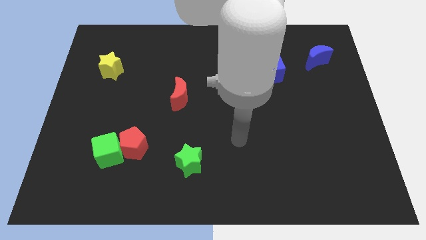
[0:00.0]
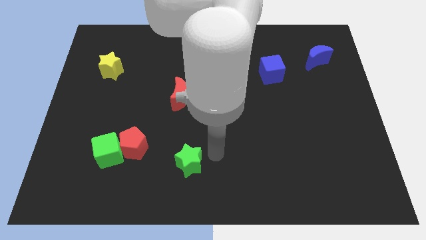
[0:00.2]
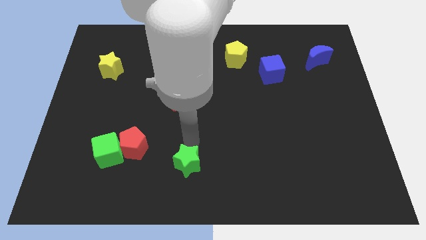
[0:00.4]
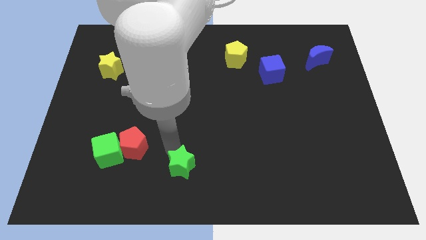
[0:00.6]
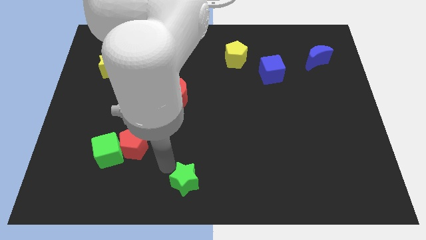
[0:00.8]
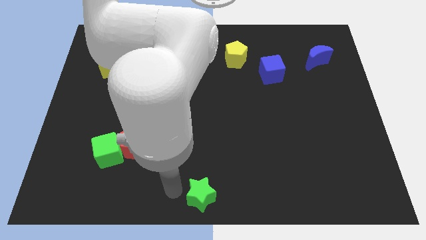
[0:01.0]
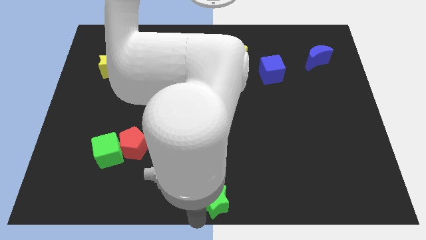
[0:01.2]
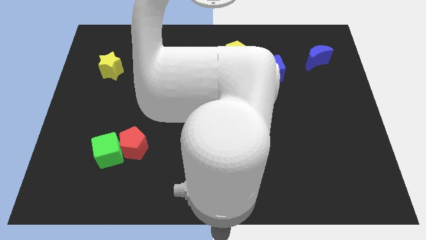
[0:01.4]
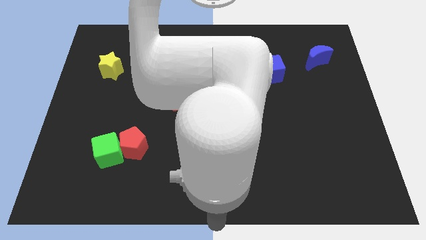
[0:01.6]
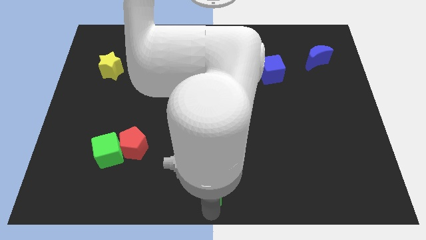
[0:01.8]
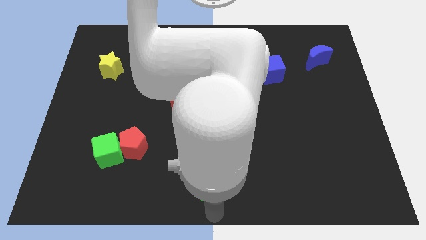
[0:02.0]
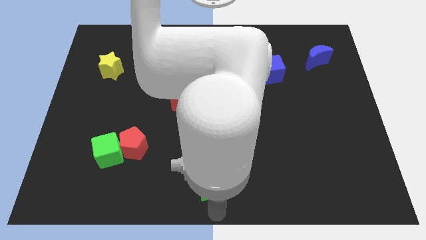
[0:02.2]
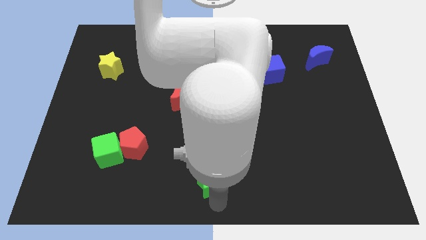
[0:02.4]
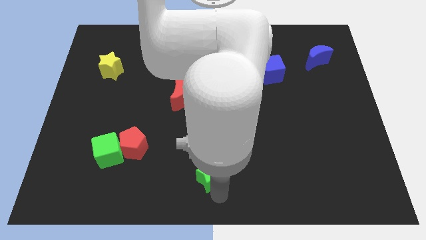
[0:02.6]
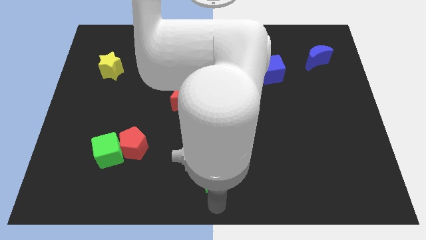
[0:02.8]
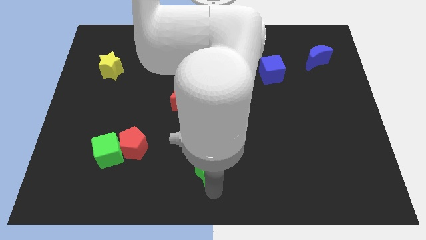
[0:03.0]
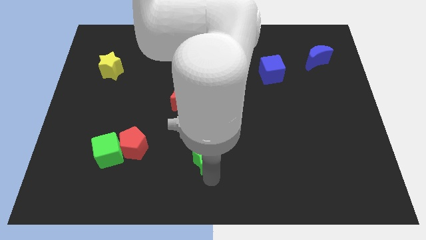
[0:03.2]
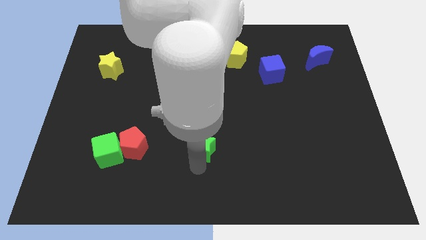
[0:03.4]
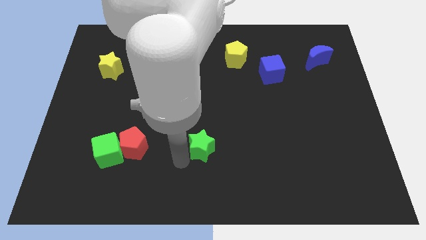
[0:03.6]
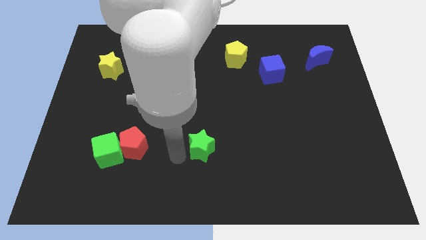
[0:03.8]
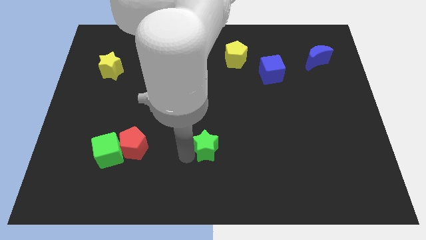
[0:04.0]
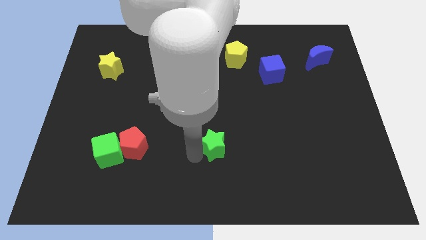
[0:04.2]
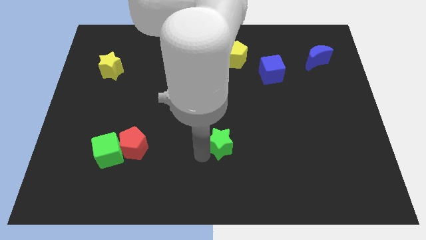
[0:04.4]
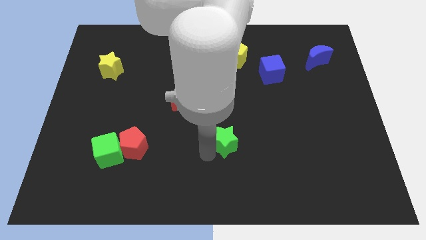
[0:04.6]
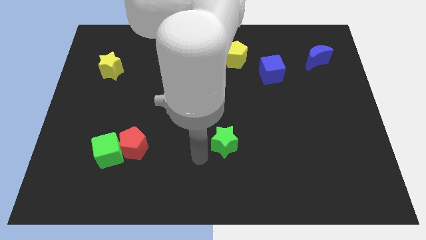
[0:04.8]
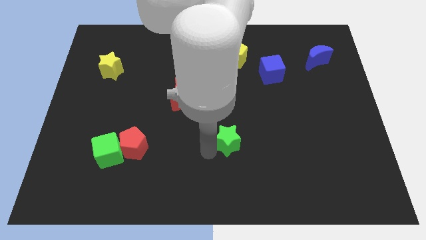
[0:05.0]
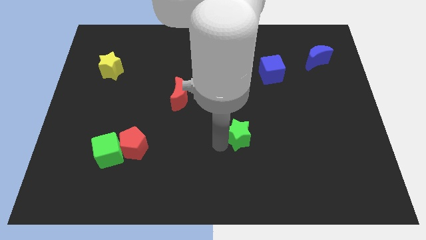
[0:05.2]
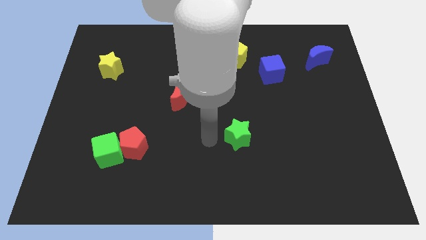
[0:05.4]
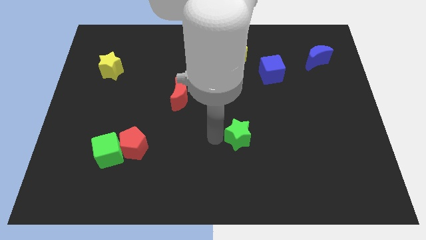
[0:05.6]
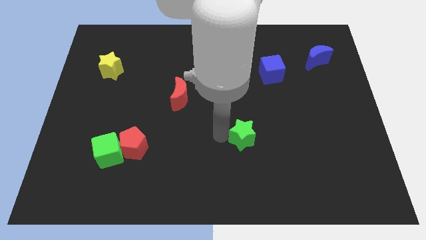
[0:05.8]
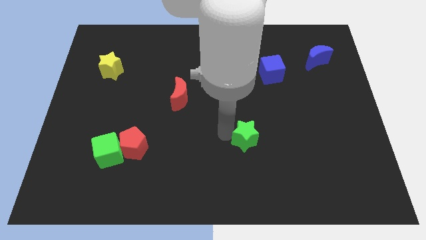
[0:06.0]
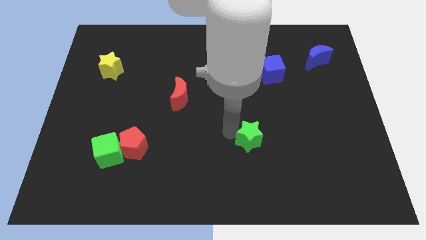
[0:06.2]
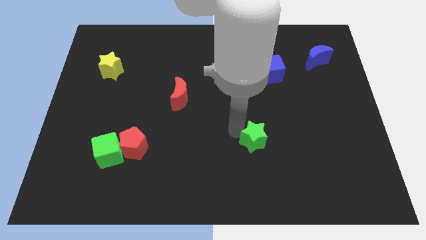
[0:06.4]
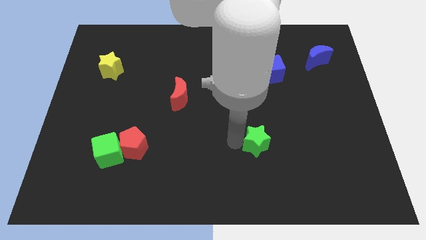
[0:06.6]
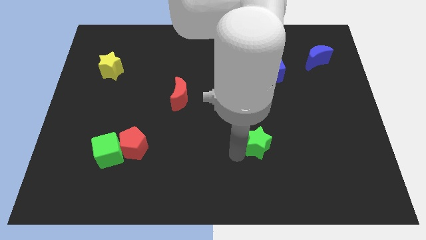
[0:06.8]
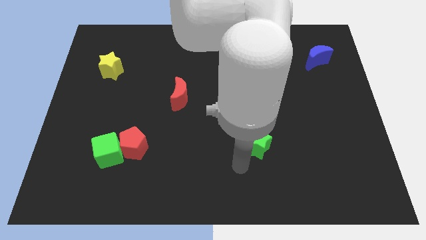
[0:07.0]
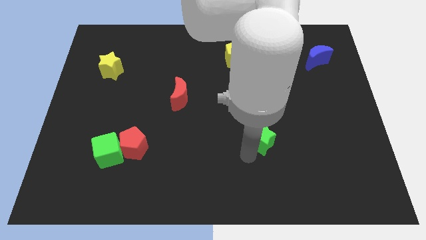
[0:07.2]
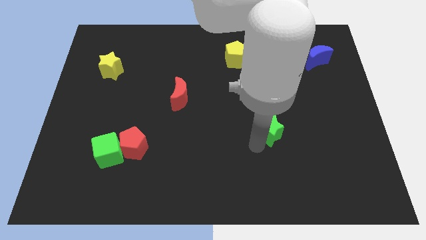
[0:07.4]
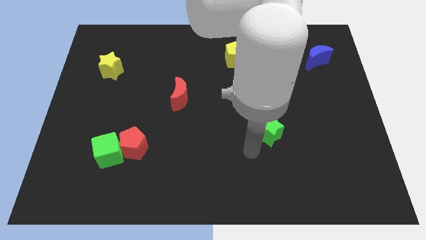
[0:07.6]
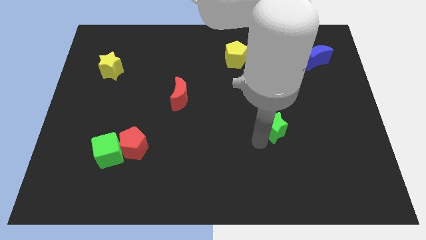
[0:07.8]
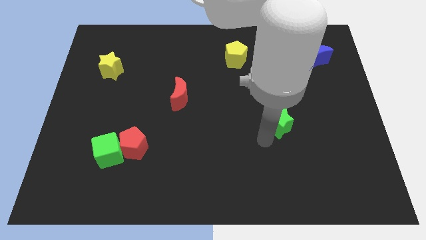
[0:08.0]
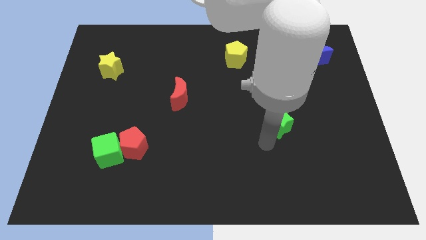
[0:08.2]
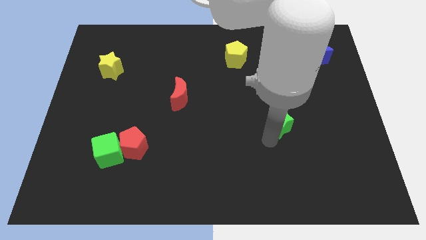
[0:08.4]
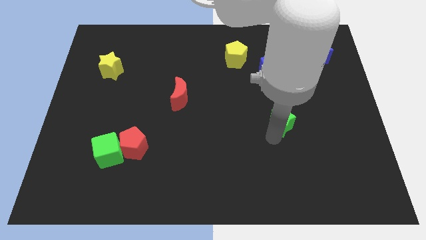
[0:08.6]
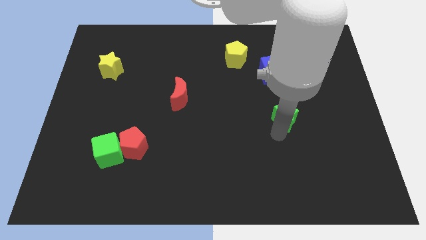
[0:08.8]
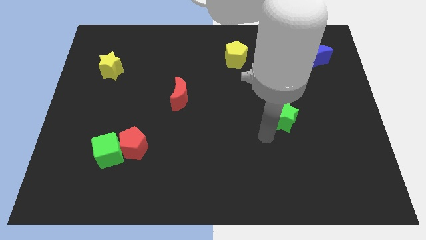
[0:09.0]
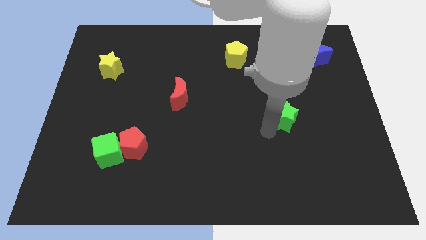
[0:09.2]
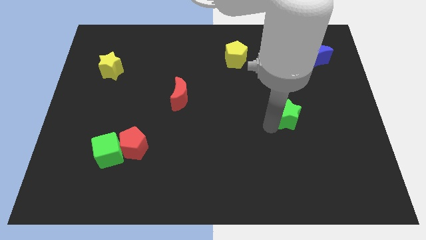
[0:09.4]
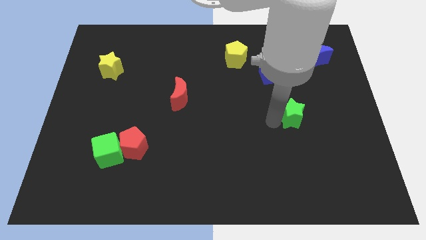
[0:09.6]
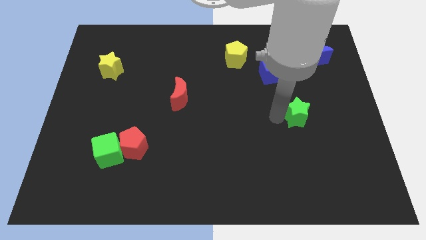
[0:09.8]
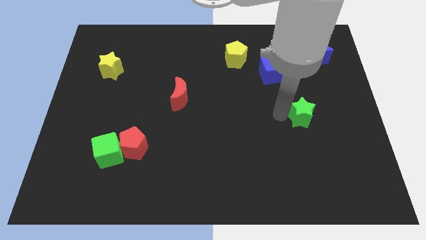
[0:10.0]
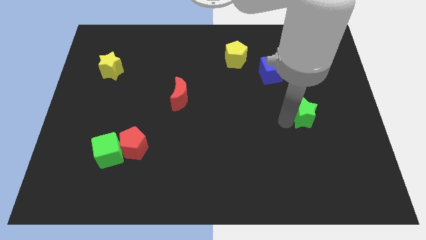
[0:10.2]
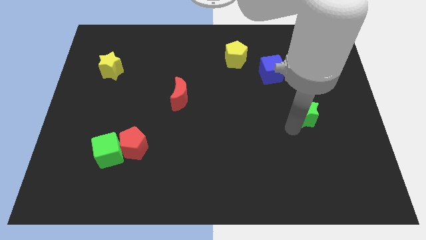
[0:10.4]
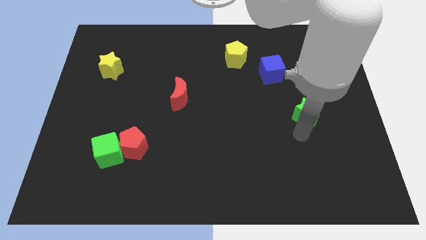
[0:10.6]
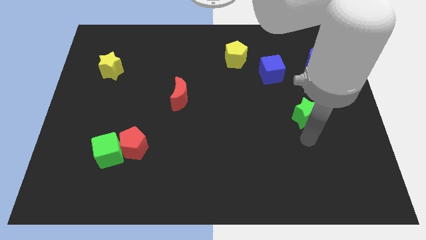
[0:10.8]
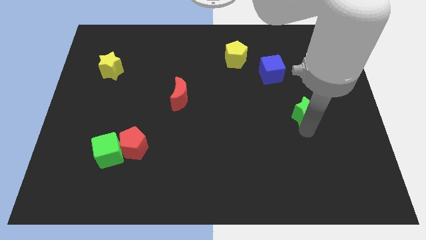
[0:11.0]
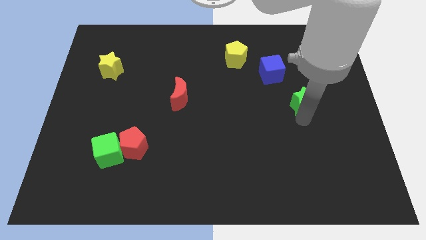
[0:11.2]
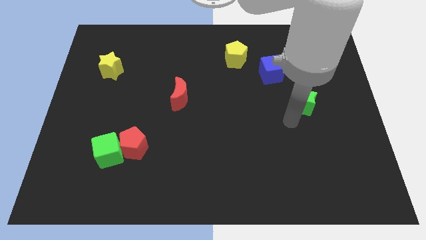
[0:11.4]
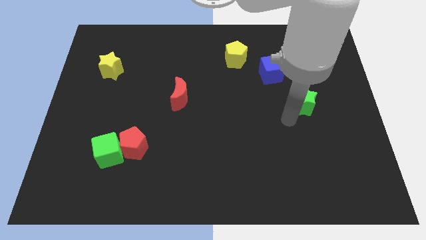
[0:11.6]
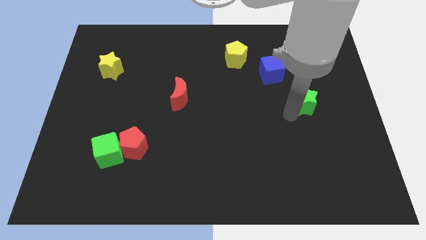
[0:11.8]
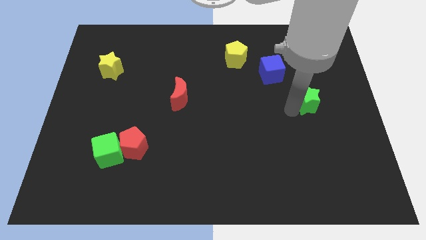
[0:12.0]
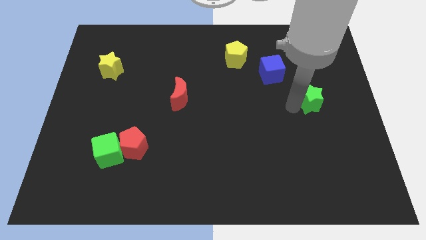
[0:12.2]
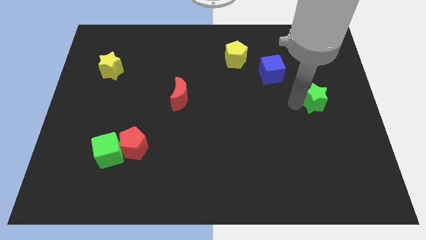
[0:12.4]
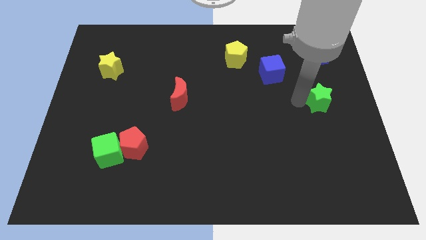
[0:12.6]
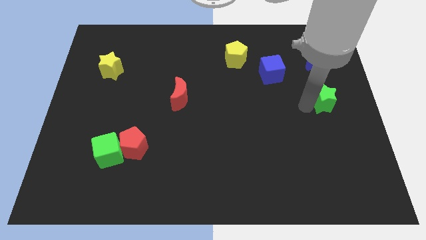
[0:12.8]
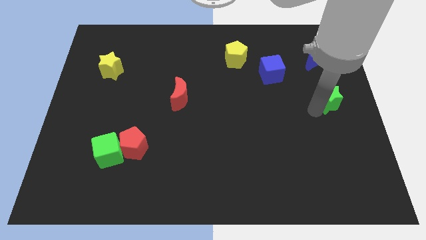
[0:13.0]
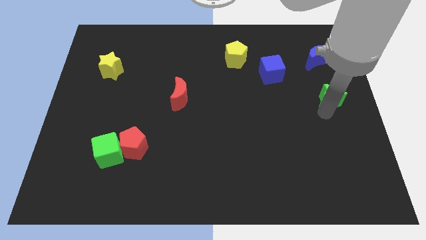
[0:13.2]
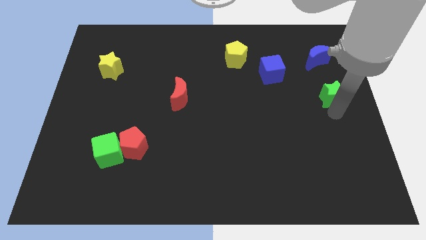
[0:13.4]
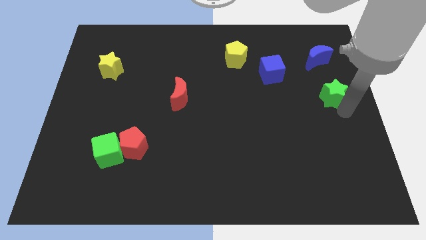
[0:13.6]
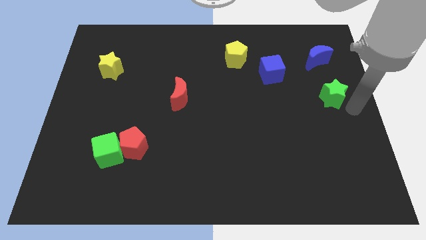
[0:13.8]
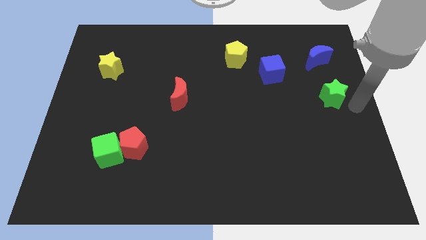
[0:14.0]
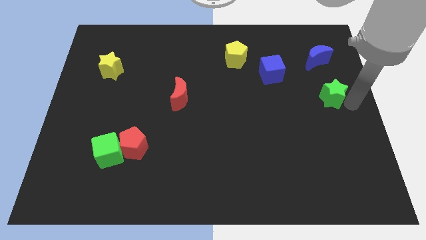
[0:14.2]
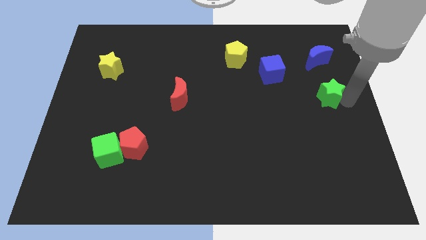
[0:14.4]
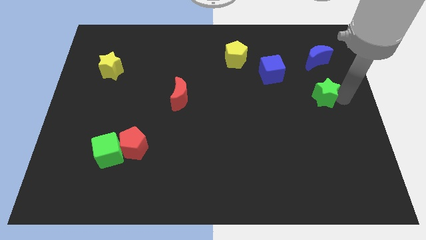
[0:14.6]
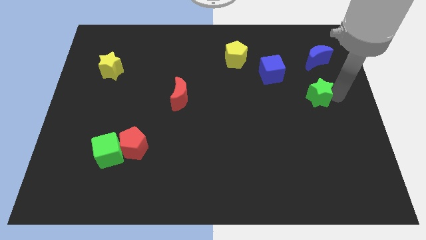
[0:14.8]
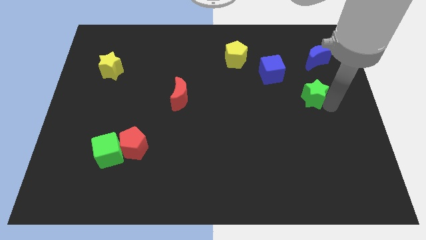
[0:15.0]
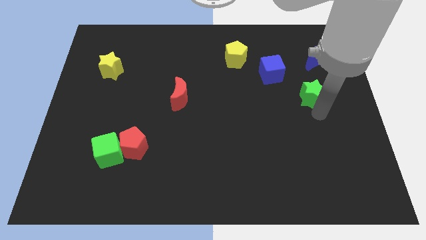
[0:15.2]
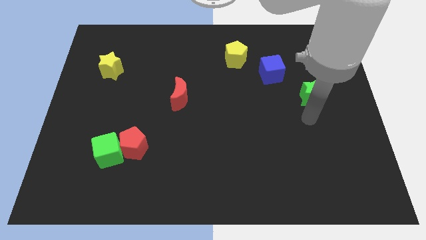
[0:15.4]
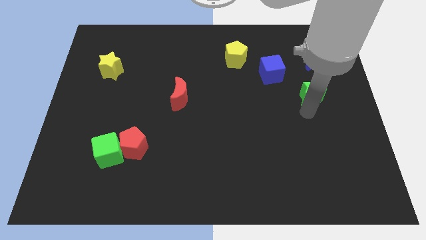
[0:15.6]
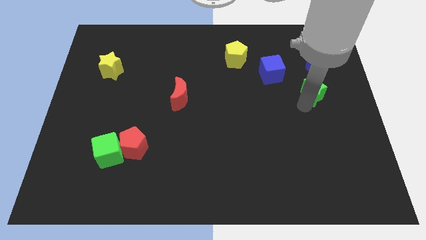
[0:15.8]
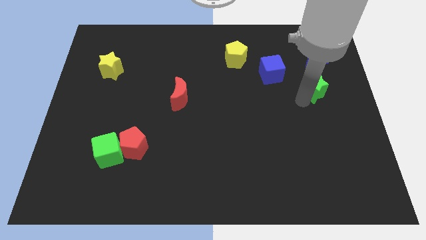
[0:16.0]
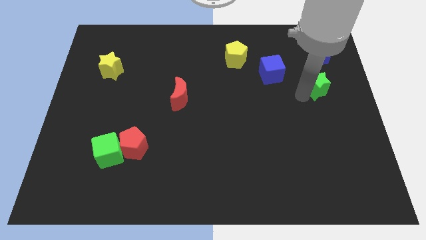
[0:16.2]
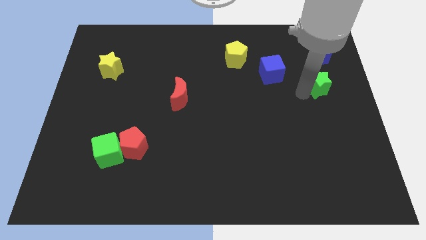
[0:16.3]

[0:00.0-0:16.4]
push the green star just right of the blue cube
